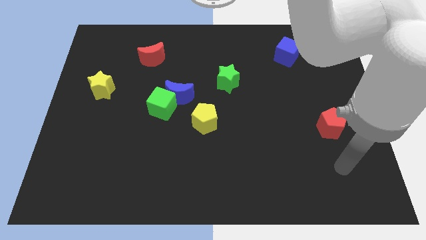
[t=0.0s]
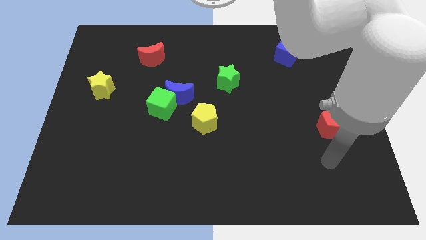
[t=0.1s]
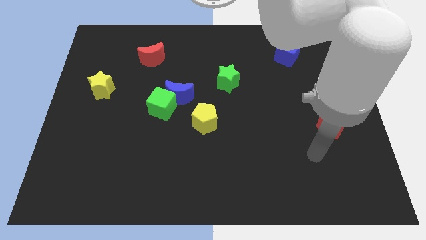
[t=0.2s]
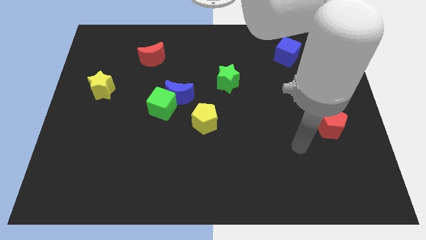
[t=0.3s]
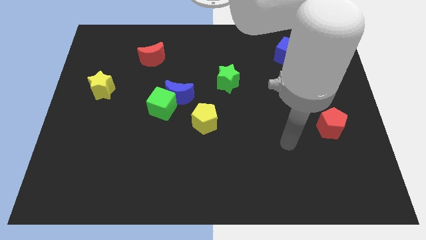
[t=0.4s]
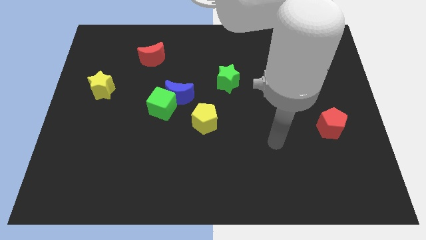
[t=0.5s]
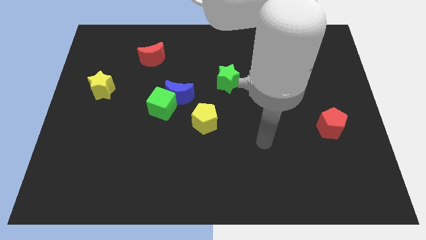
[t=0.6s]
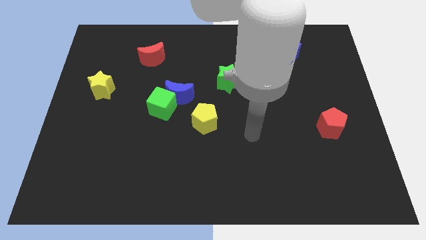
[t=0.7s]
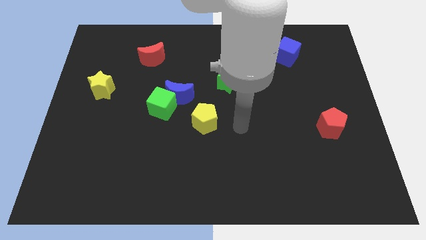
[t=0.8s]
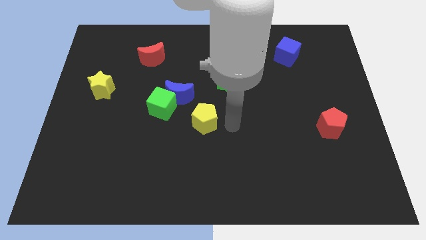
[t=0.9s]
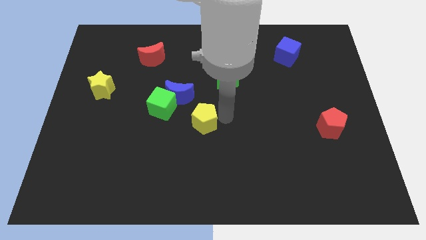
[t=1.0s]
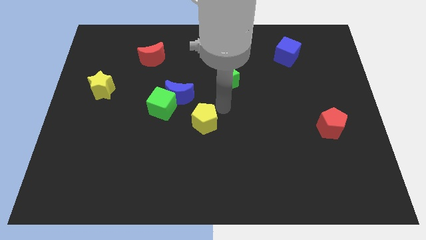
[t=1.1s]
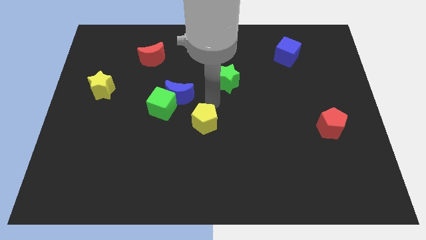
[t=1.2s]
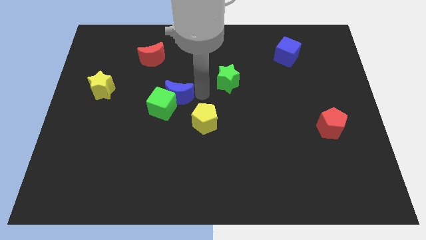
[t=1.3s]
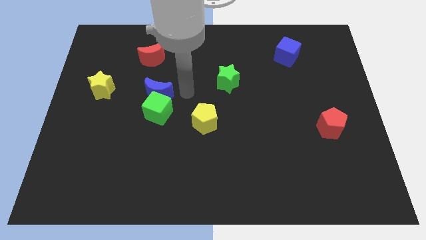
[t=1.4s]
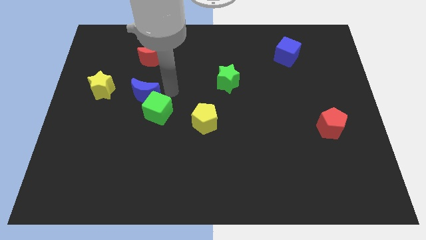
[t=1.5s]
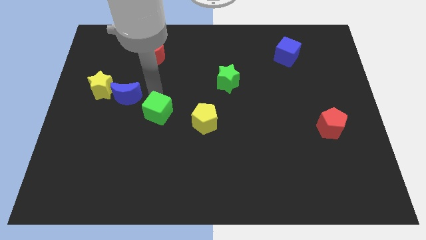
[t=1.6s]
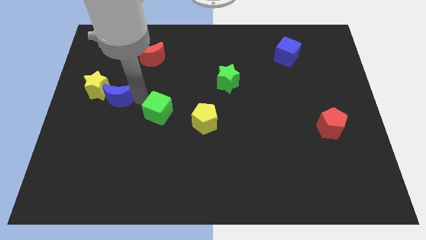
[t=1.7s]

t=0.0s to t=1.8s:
separate the green cube from the blue moon

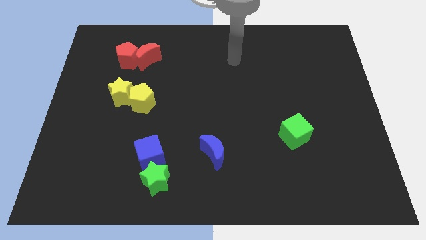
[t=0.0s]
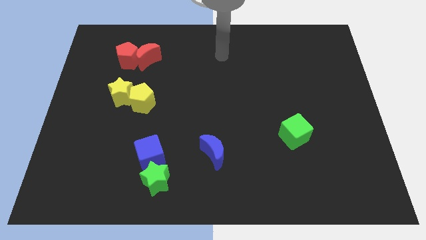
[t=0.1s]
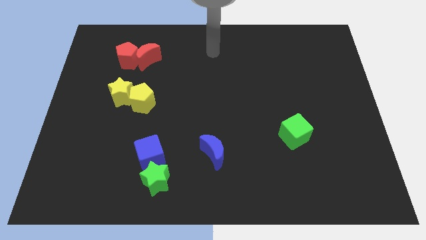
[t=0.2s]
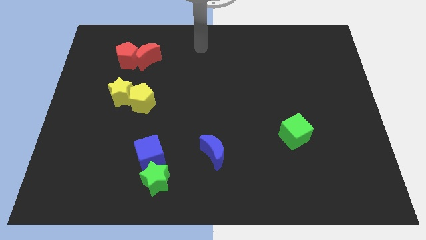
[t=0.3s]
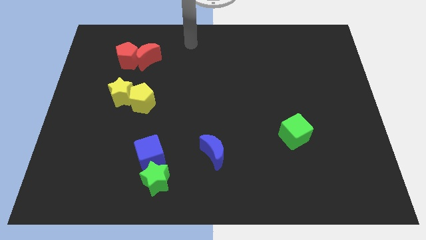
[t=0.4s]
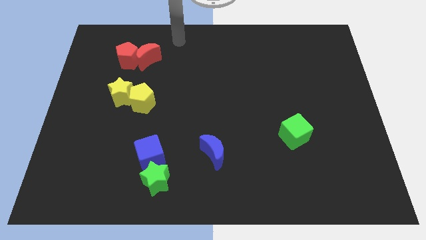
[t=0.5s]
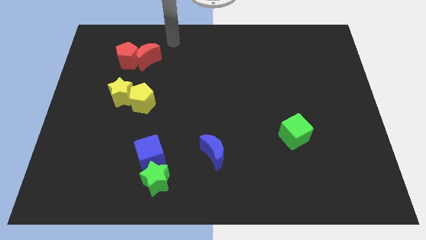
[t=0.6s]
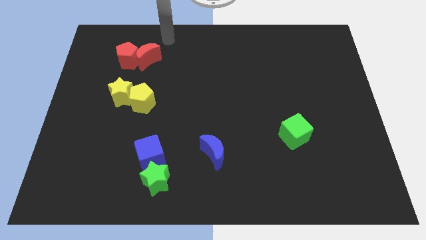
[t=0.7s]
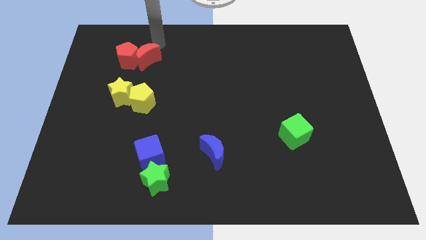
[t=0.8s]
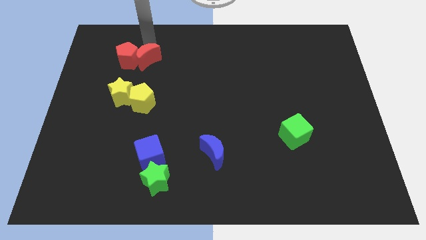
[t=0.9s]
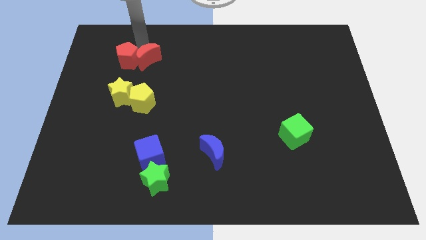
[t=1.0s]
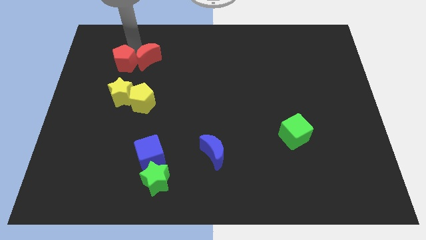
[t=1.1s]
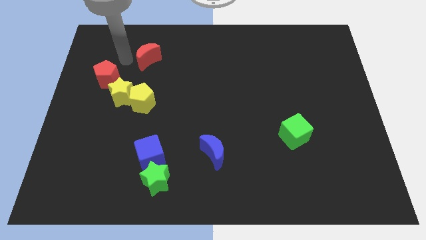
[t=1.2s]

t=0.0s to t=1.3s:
move the red moon away from the red pentagon

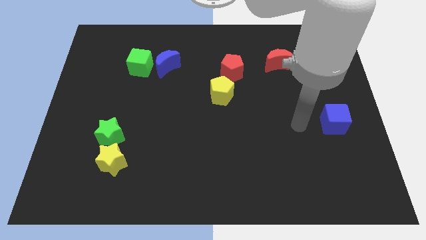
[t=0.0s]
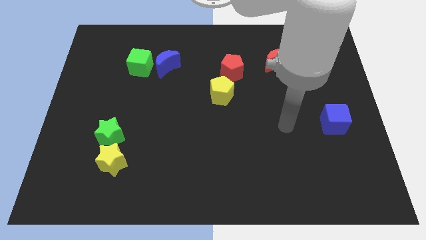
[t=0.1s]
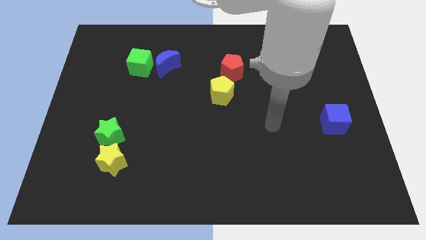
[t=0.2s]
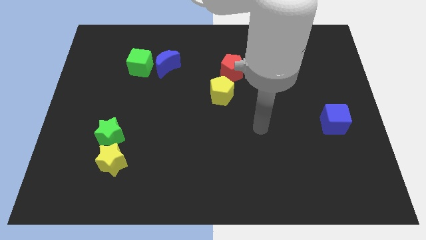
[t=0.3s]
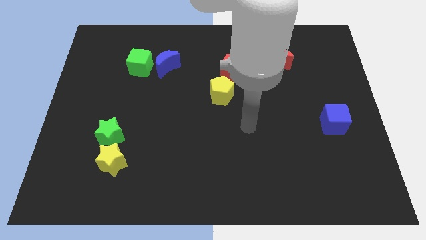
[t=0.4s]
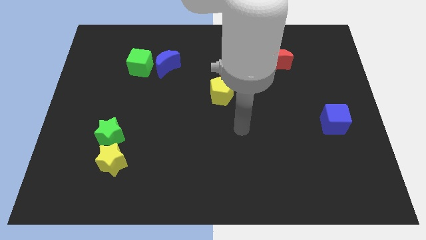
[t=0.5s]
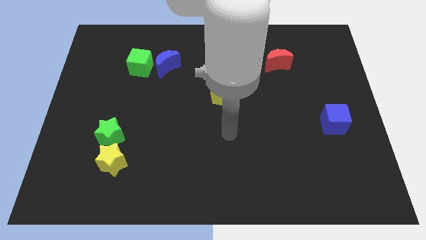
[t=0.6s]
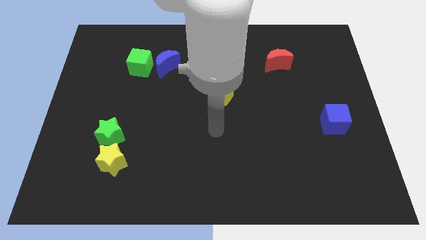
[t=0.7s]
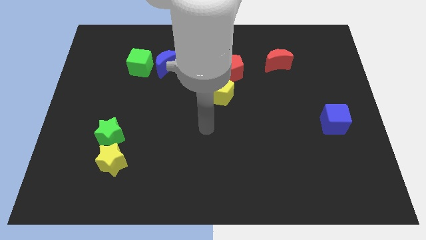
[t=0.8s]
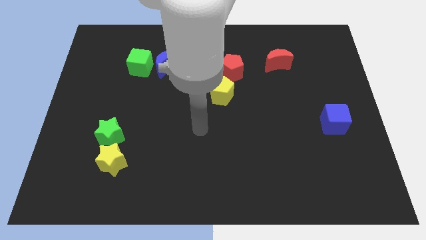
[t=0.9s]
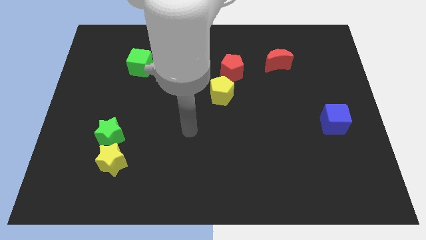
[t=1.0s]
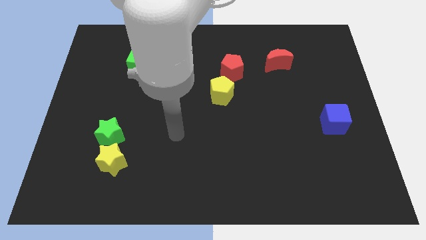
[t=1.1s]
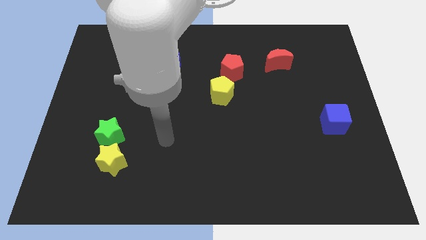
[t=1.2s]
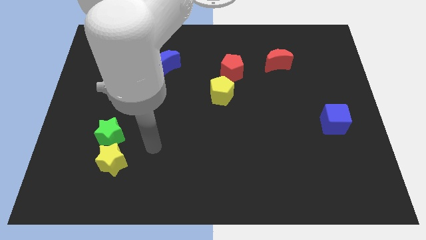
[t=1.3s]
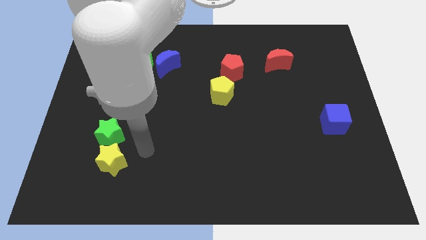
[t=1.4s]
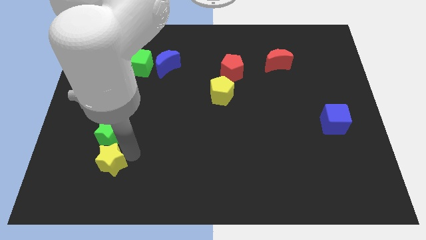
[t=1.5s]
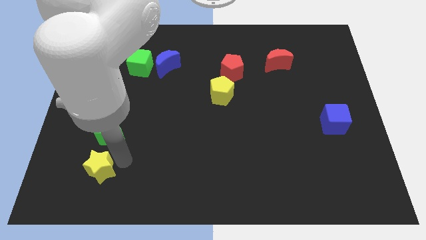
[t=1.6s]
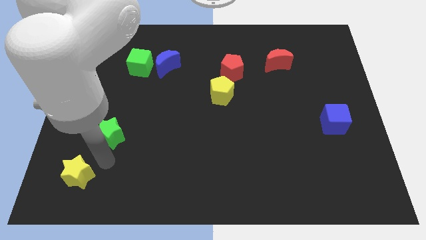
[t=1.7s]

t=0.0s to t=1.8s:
separate the green star from the yellow star

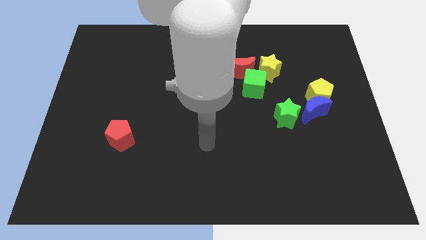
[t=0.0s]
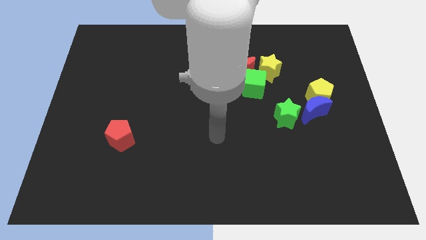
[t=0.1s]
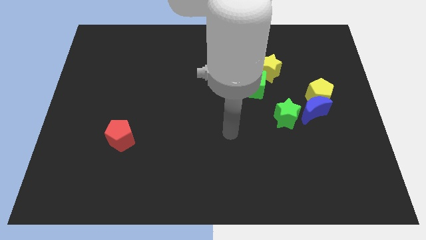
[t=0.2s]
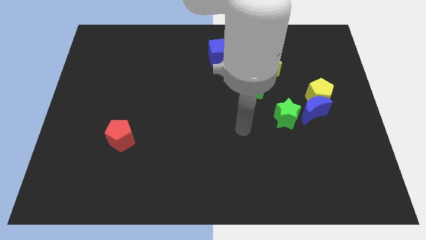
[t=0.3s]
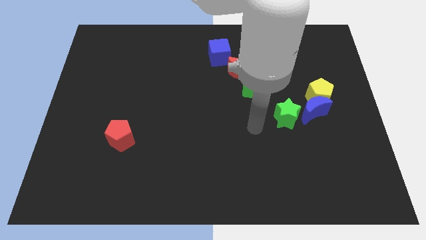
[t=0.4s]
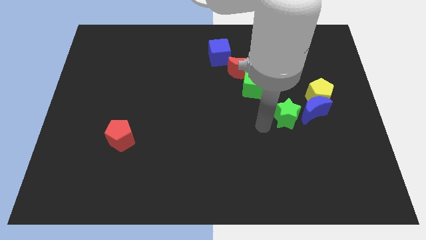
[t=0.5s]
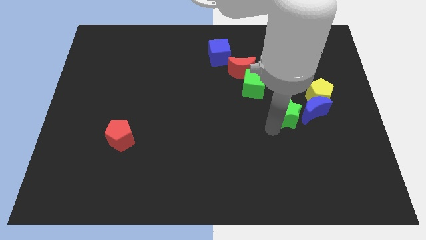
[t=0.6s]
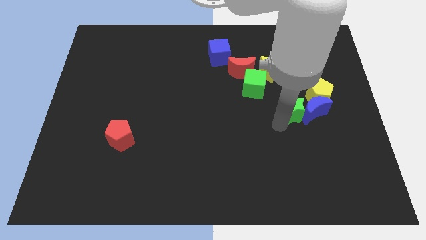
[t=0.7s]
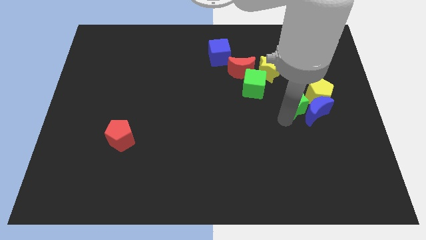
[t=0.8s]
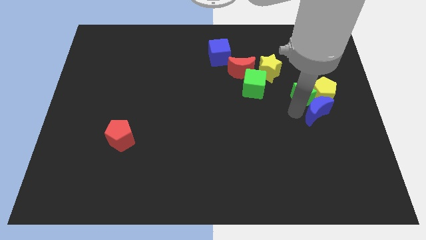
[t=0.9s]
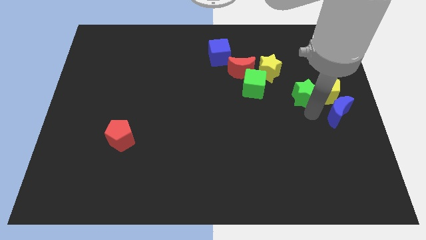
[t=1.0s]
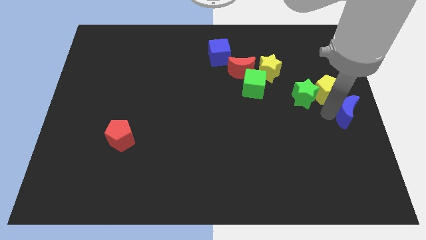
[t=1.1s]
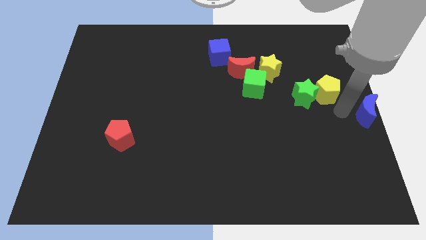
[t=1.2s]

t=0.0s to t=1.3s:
separate the yellow pentagon from the blue moon

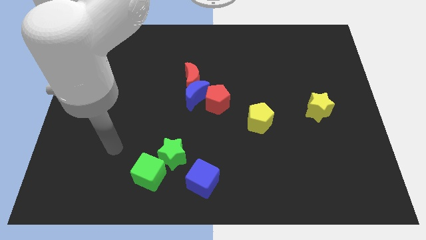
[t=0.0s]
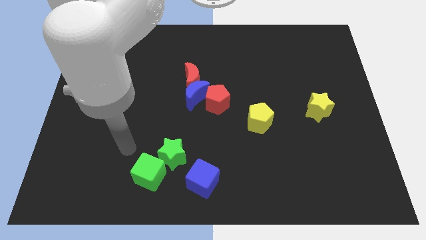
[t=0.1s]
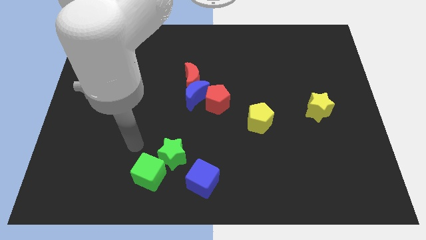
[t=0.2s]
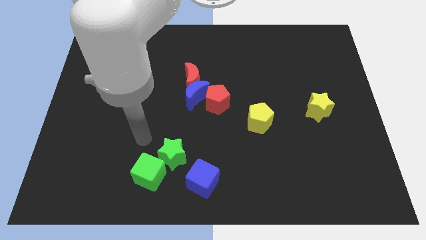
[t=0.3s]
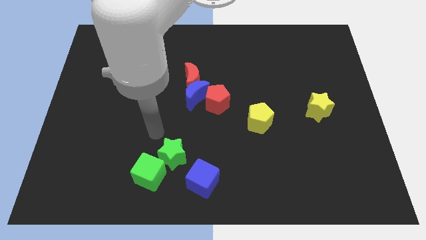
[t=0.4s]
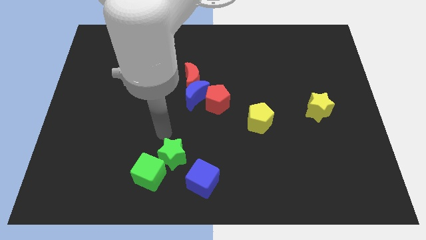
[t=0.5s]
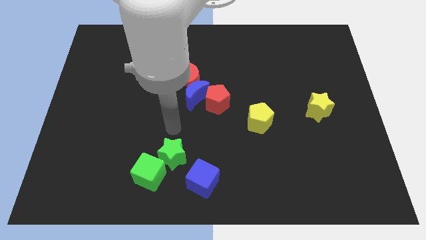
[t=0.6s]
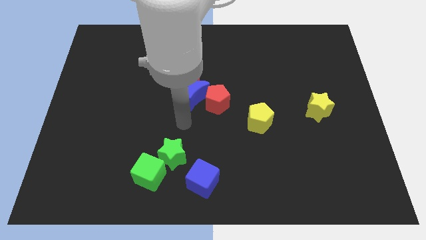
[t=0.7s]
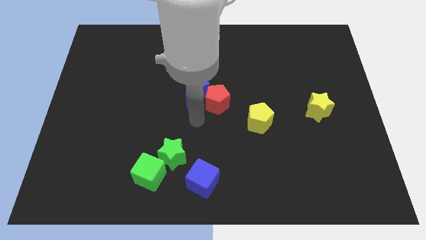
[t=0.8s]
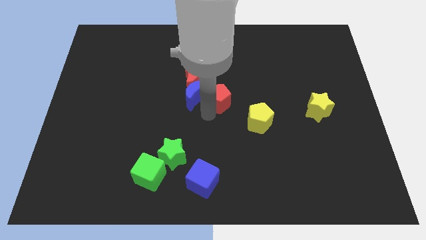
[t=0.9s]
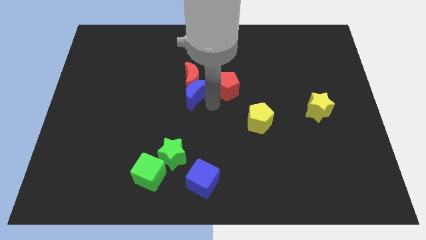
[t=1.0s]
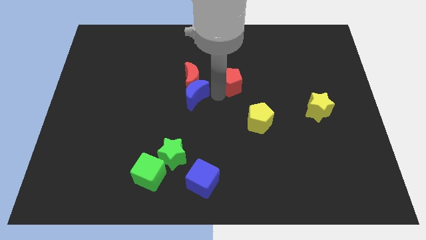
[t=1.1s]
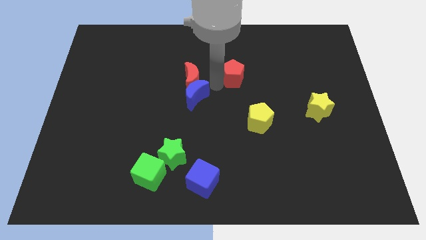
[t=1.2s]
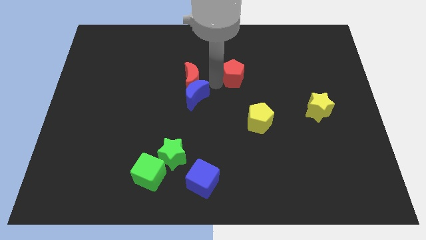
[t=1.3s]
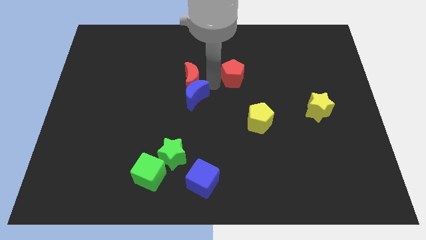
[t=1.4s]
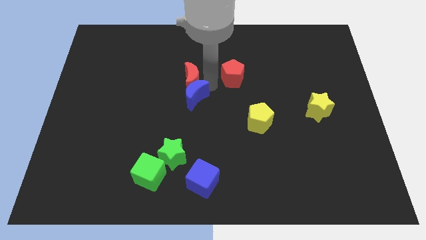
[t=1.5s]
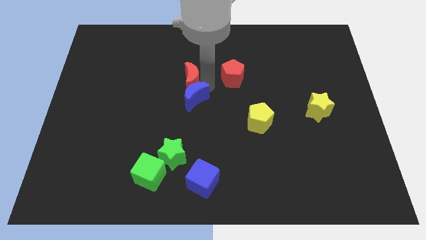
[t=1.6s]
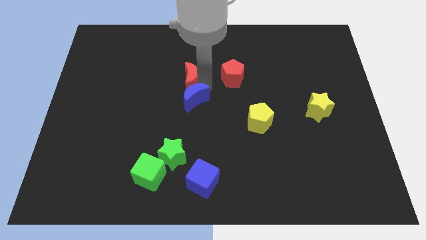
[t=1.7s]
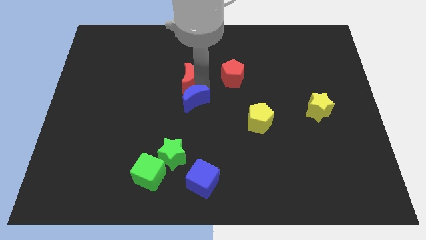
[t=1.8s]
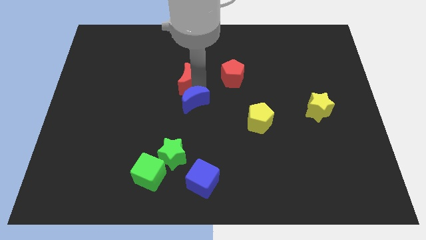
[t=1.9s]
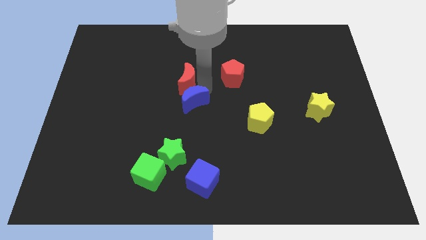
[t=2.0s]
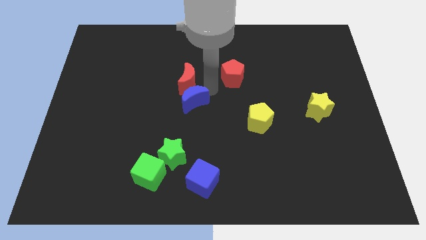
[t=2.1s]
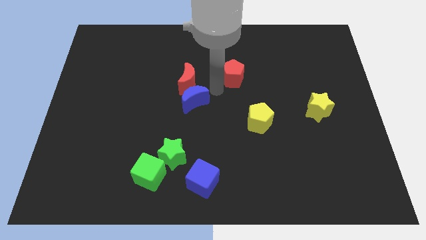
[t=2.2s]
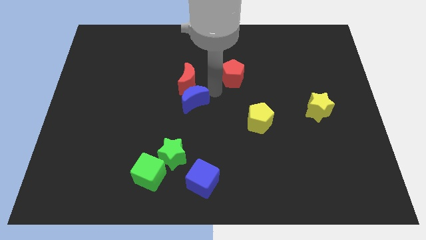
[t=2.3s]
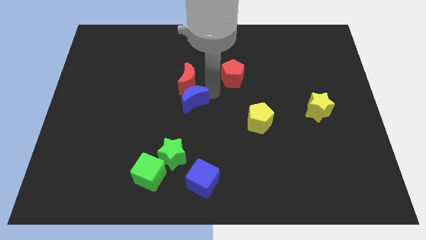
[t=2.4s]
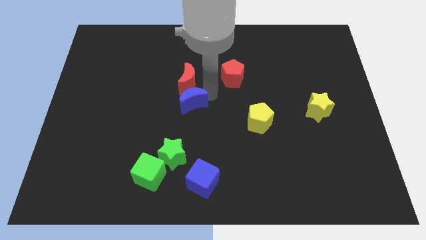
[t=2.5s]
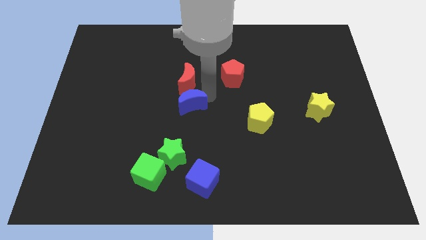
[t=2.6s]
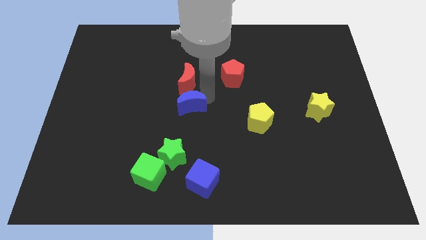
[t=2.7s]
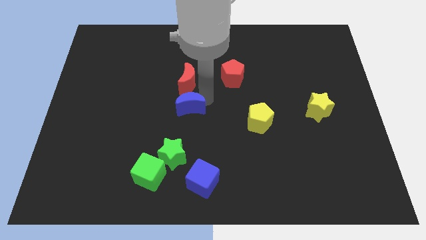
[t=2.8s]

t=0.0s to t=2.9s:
move the blue moon away from the red moon and red pentagon

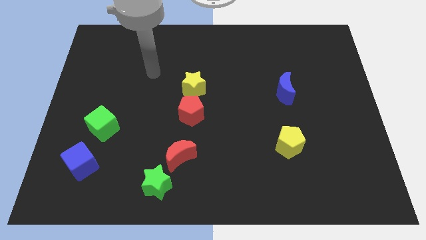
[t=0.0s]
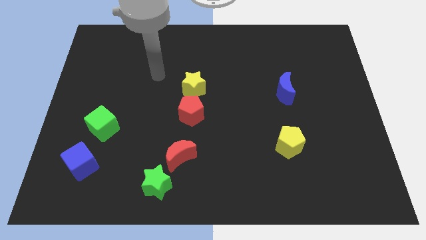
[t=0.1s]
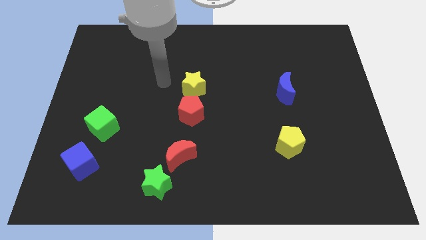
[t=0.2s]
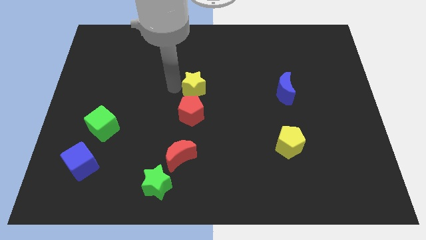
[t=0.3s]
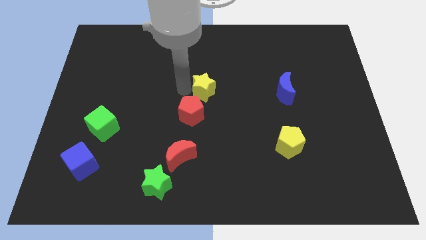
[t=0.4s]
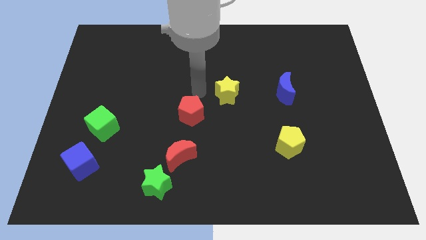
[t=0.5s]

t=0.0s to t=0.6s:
pull the red pentagon apart from the yellow star
